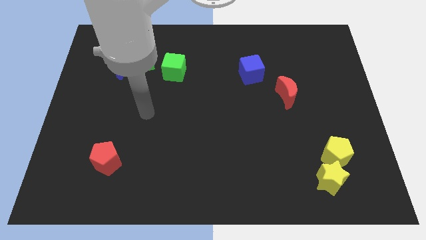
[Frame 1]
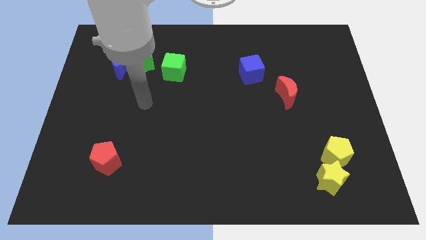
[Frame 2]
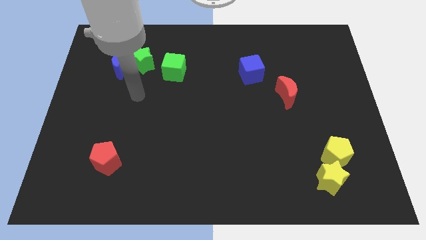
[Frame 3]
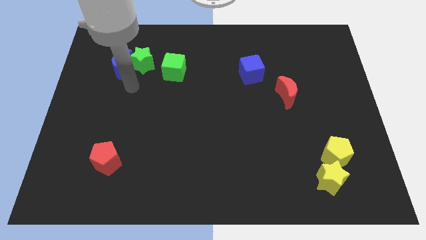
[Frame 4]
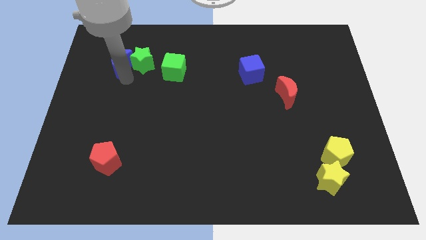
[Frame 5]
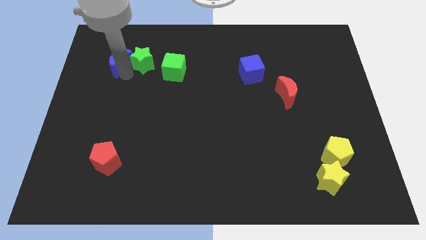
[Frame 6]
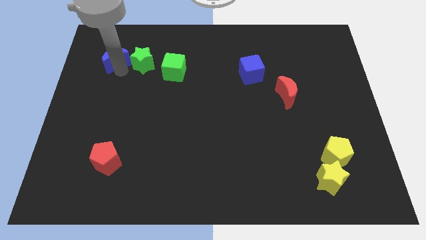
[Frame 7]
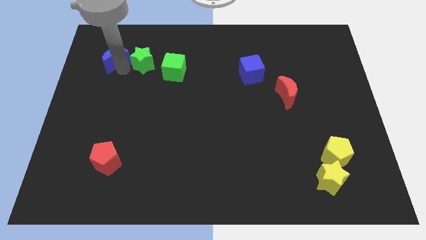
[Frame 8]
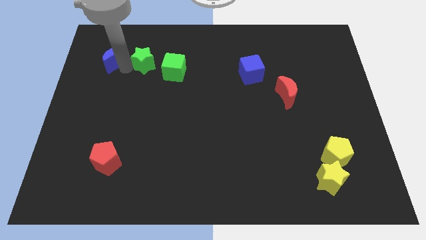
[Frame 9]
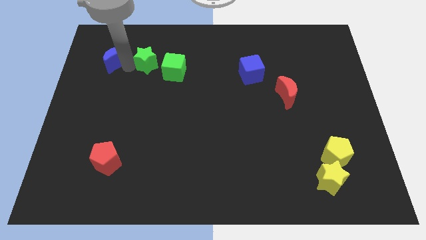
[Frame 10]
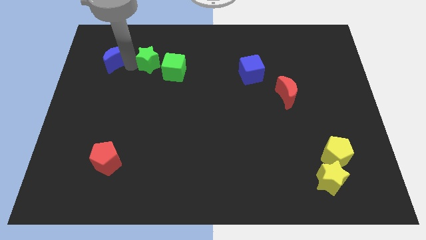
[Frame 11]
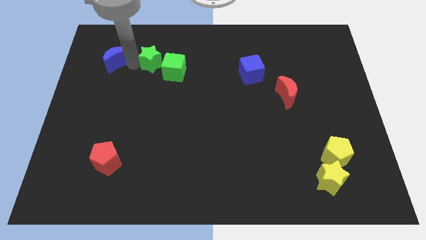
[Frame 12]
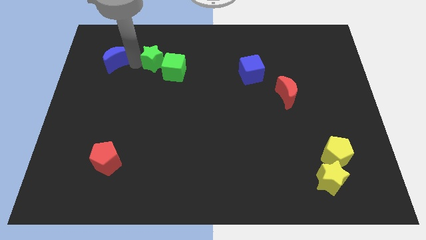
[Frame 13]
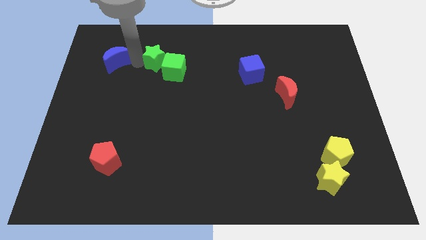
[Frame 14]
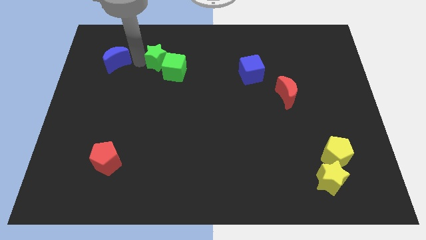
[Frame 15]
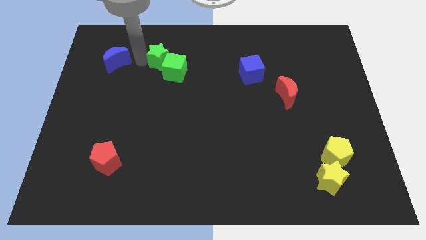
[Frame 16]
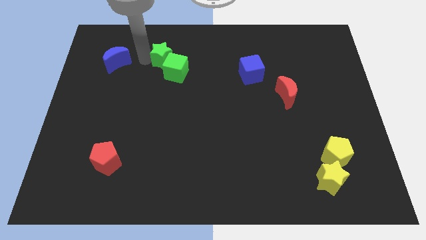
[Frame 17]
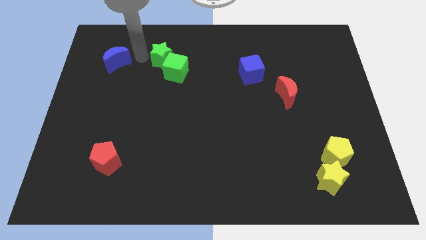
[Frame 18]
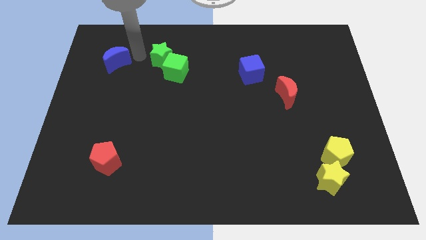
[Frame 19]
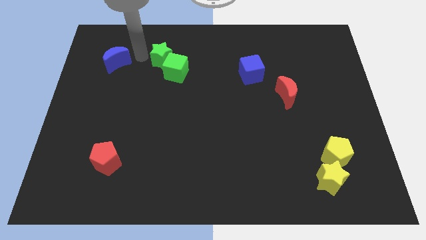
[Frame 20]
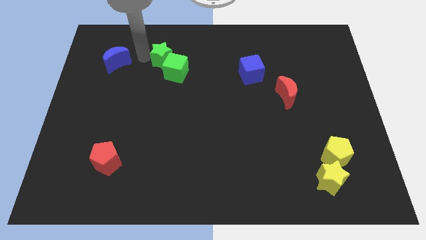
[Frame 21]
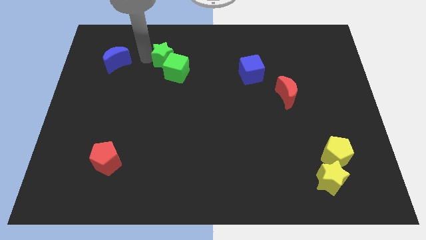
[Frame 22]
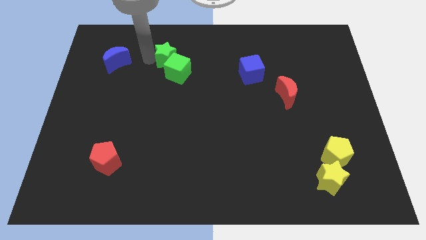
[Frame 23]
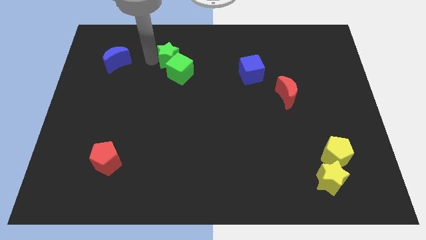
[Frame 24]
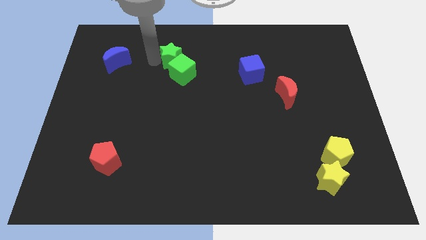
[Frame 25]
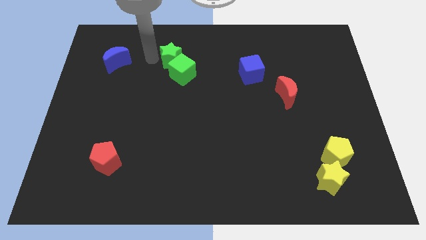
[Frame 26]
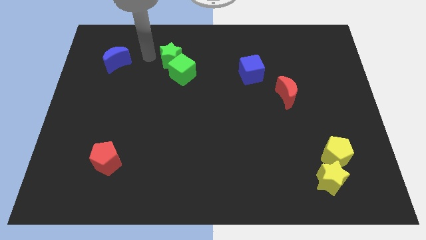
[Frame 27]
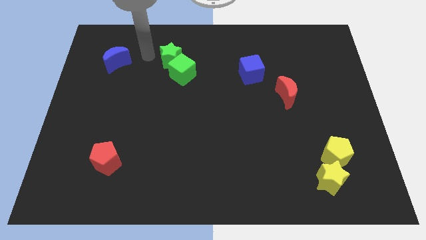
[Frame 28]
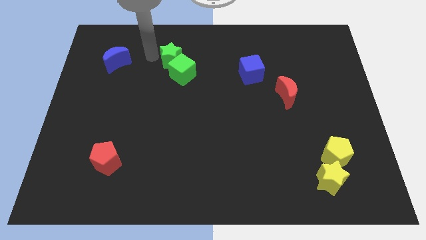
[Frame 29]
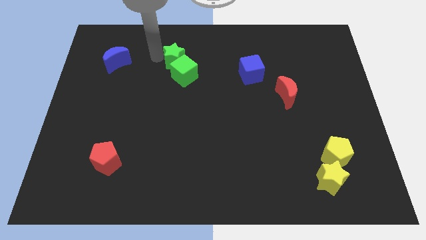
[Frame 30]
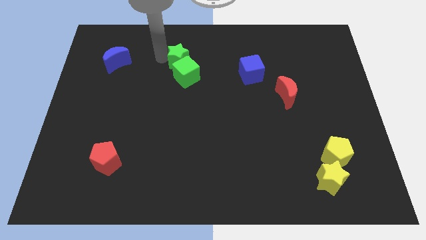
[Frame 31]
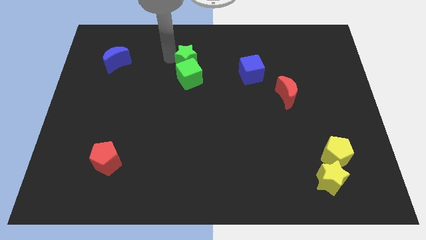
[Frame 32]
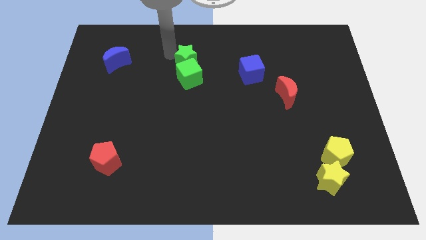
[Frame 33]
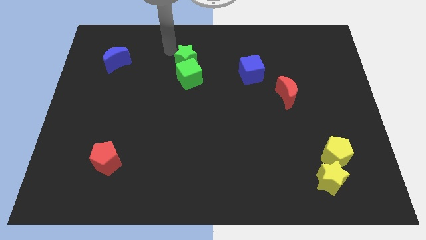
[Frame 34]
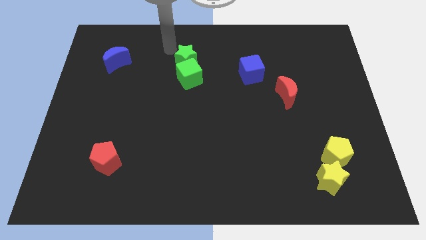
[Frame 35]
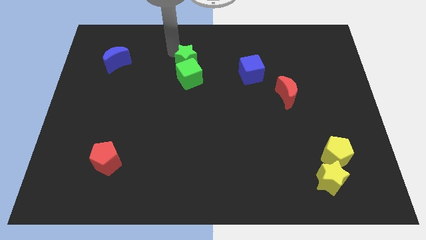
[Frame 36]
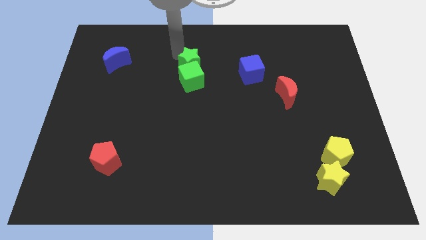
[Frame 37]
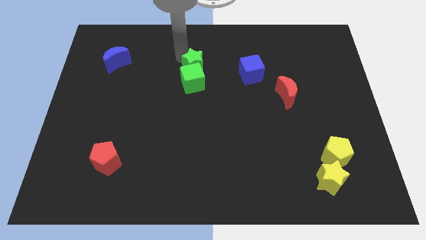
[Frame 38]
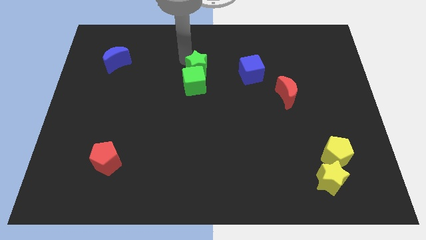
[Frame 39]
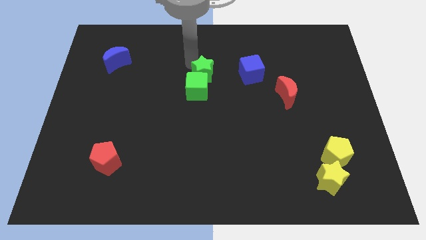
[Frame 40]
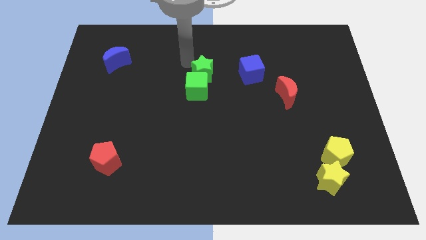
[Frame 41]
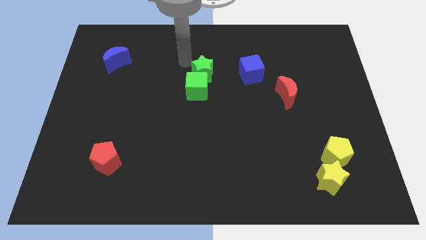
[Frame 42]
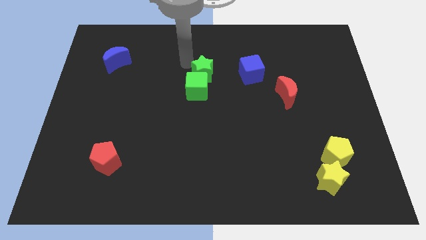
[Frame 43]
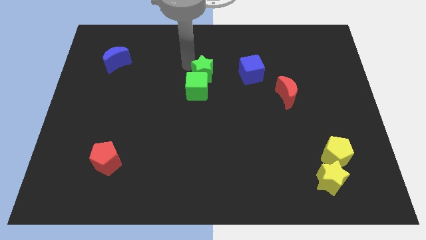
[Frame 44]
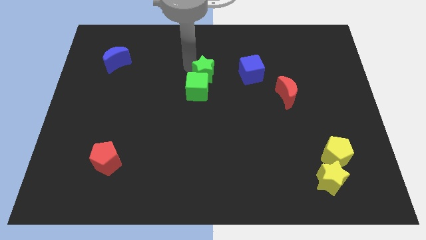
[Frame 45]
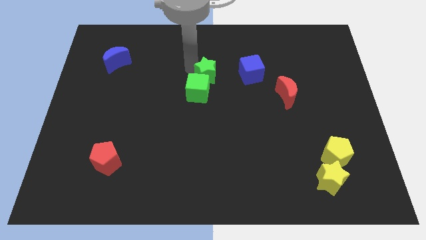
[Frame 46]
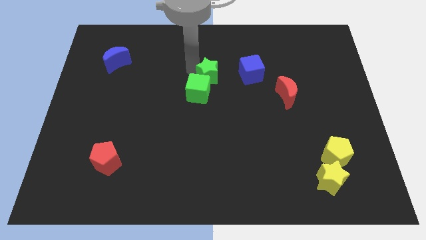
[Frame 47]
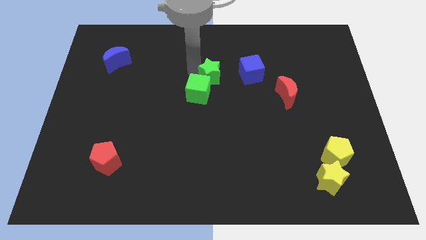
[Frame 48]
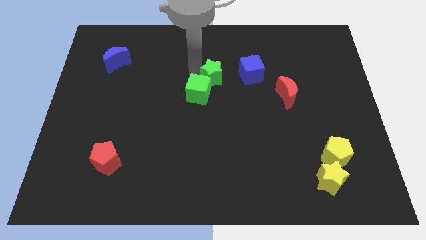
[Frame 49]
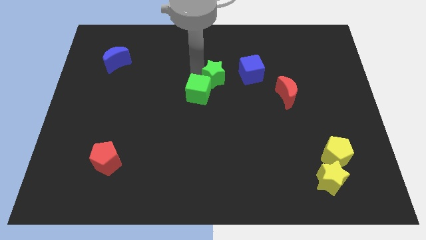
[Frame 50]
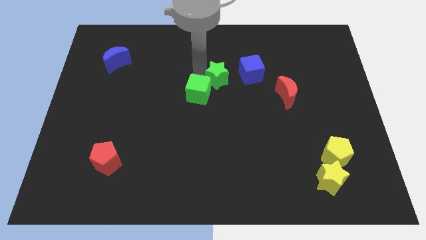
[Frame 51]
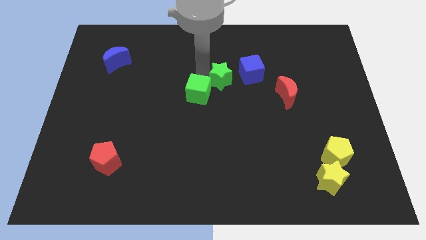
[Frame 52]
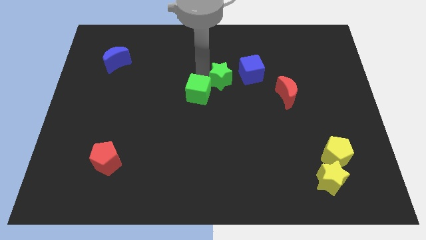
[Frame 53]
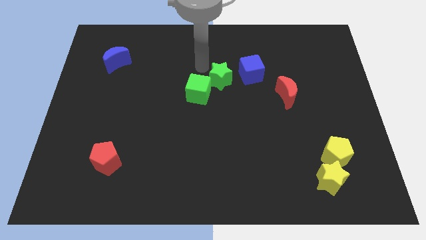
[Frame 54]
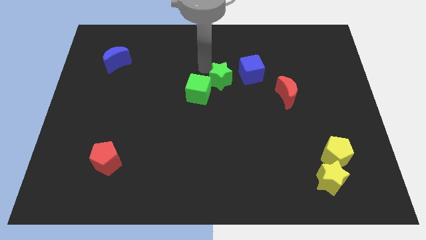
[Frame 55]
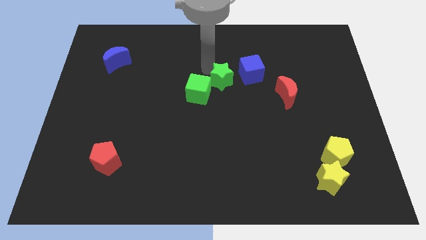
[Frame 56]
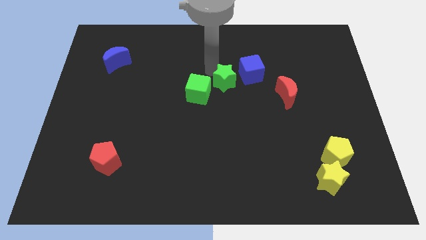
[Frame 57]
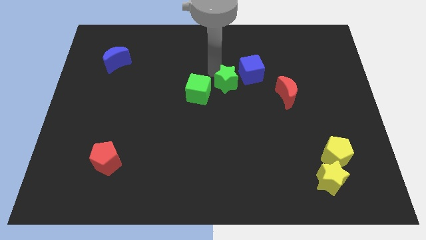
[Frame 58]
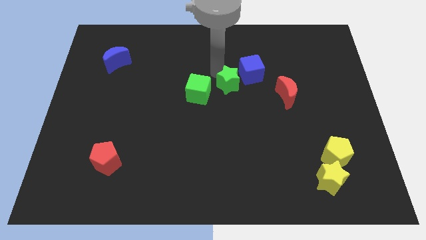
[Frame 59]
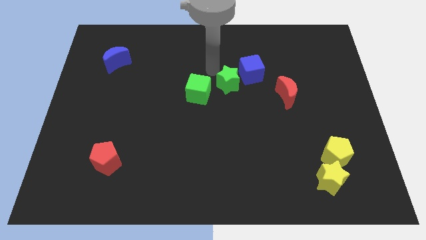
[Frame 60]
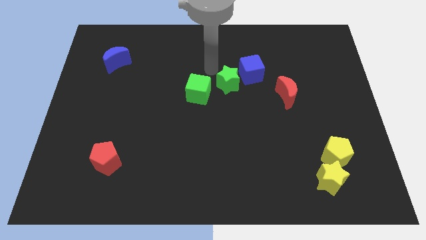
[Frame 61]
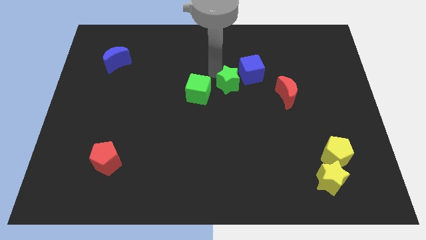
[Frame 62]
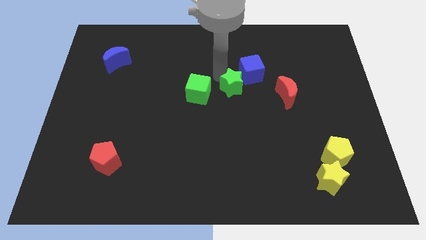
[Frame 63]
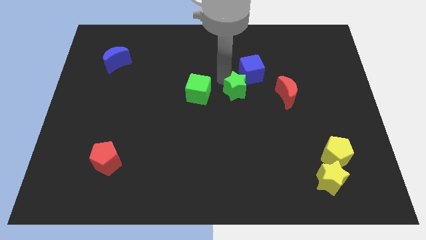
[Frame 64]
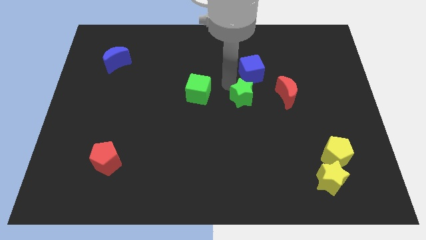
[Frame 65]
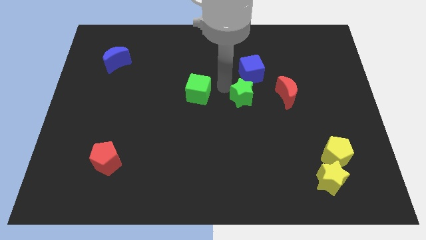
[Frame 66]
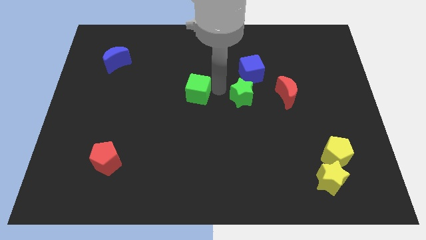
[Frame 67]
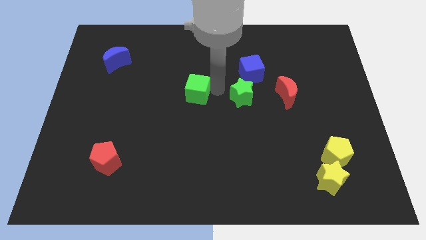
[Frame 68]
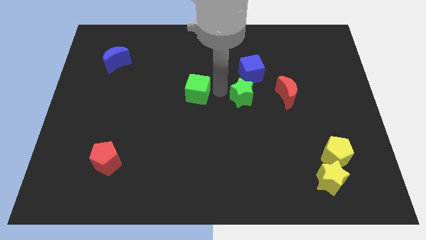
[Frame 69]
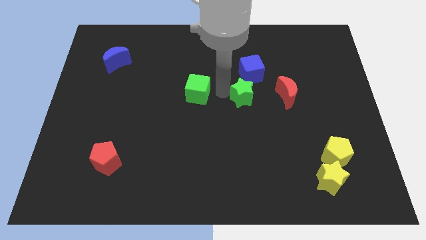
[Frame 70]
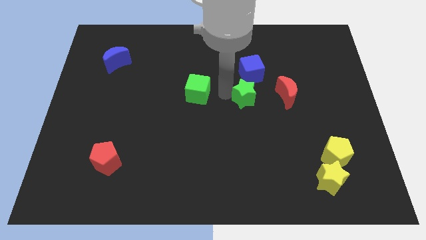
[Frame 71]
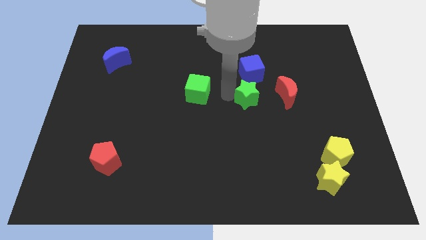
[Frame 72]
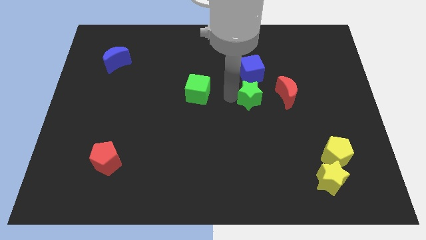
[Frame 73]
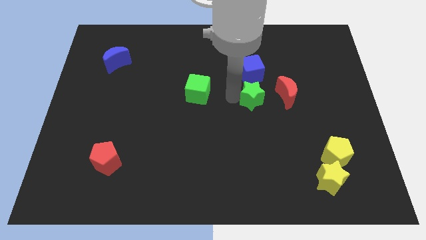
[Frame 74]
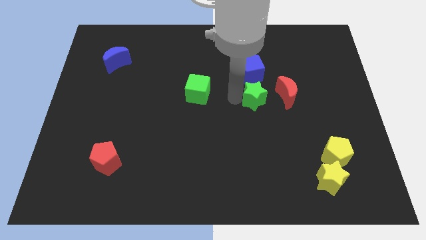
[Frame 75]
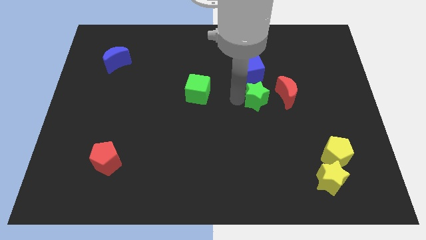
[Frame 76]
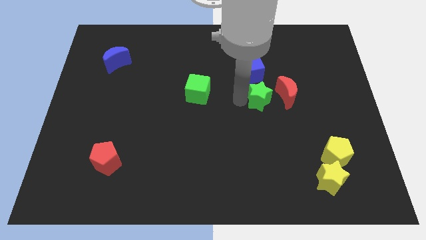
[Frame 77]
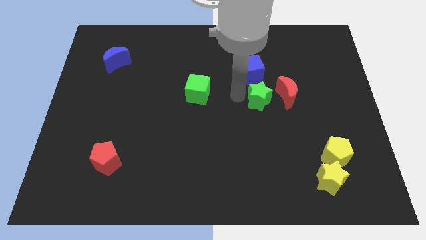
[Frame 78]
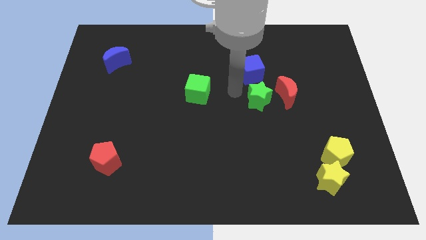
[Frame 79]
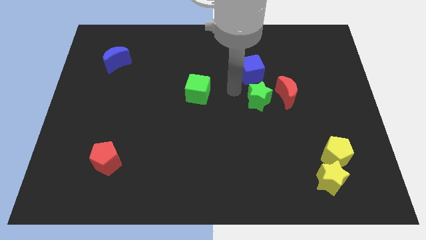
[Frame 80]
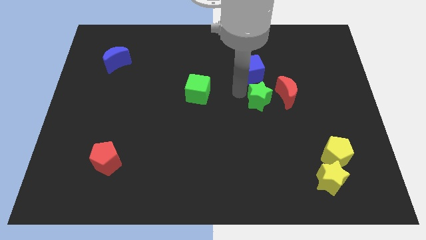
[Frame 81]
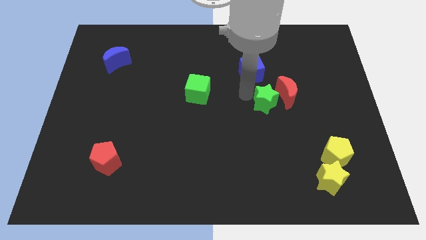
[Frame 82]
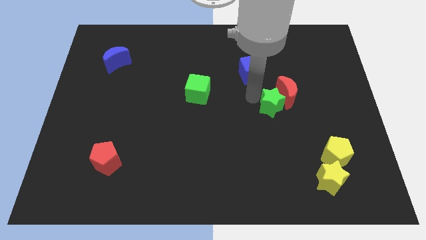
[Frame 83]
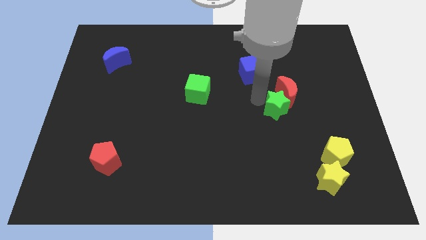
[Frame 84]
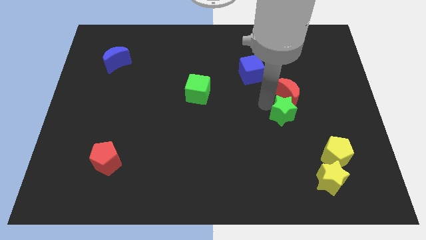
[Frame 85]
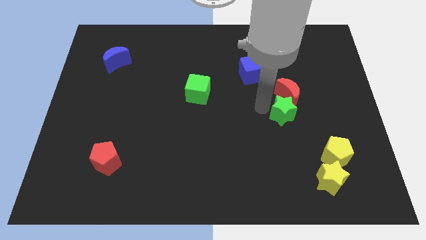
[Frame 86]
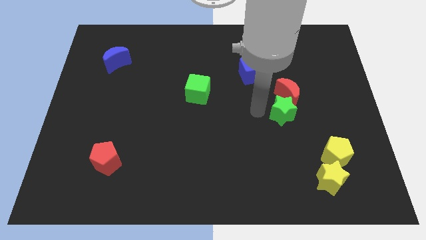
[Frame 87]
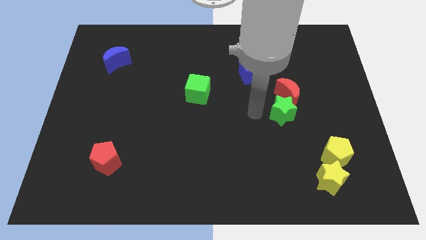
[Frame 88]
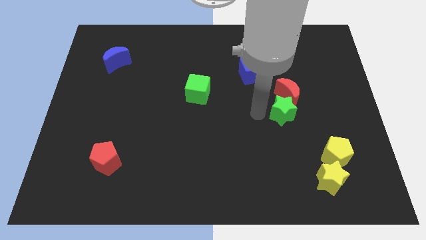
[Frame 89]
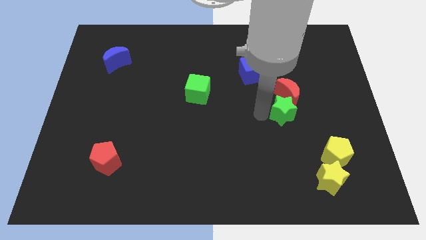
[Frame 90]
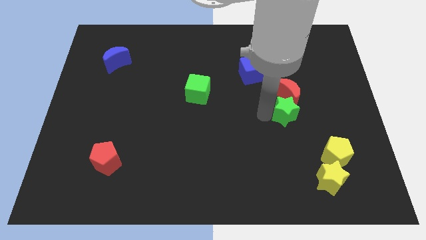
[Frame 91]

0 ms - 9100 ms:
move the green star diagonally down and to the right of the red moon
